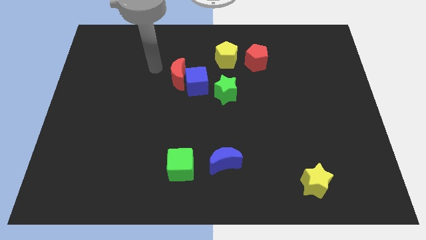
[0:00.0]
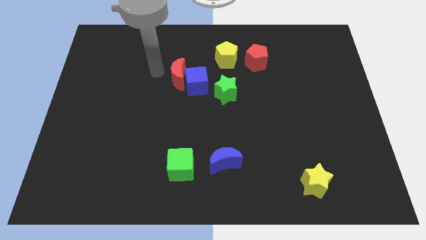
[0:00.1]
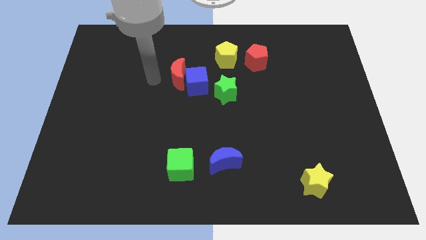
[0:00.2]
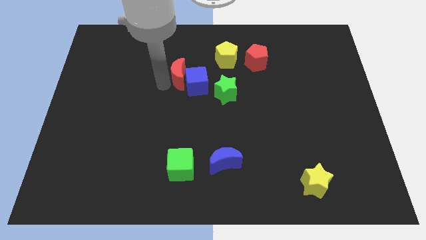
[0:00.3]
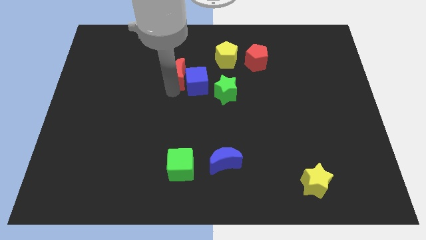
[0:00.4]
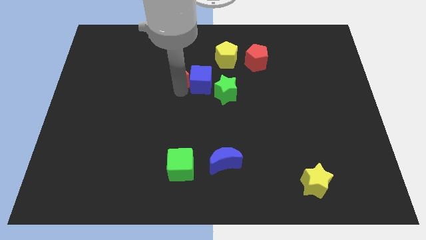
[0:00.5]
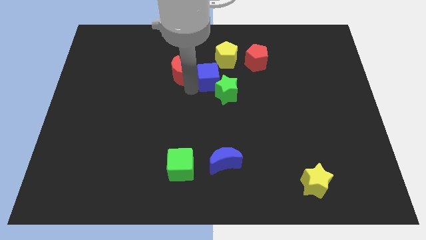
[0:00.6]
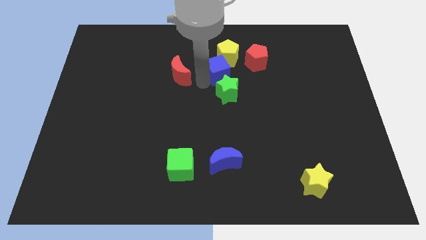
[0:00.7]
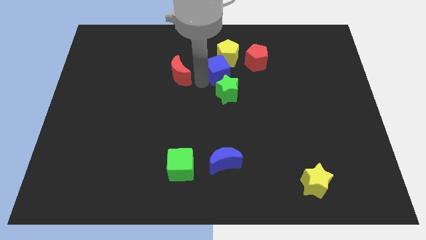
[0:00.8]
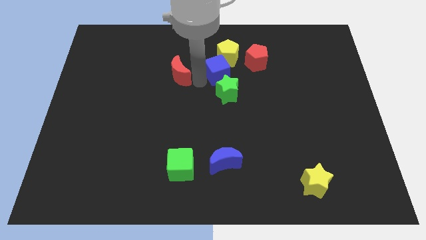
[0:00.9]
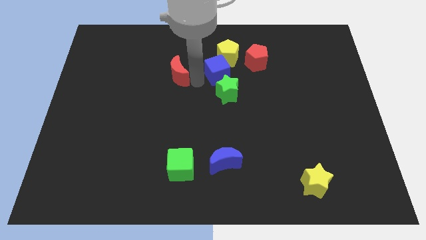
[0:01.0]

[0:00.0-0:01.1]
separate the red moon from the blue cube

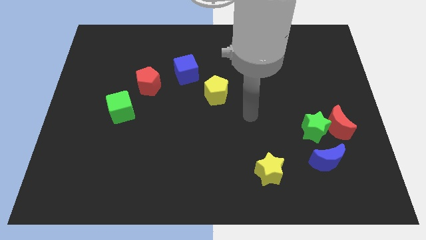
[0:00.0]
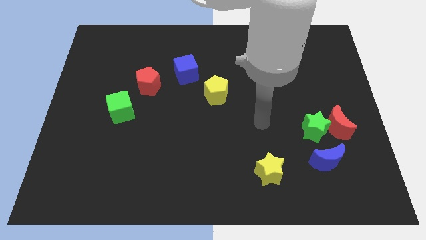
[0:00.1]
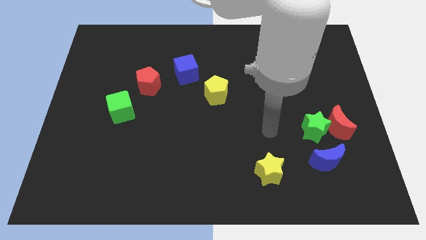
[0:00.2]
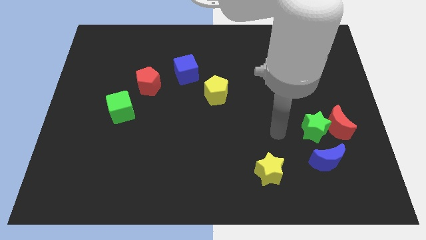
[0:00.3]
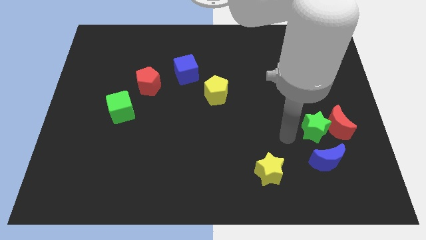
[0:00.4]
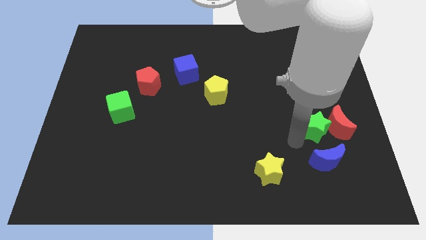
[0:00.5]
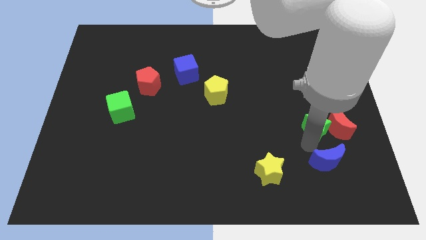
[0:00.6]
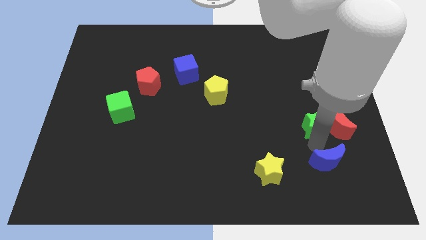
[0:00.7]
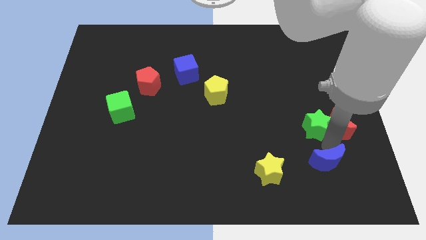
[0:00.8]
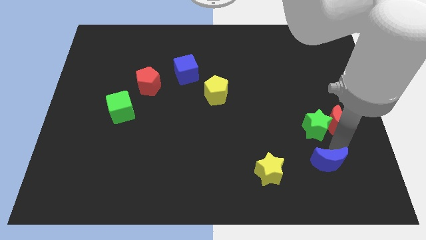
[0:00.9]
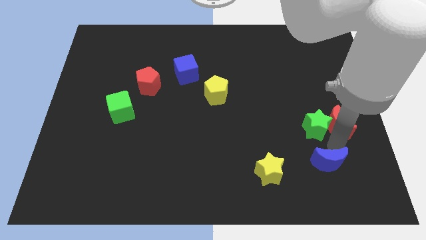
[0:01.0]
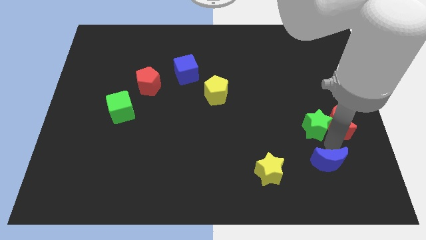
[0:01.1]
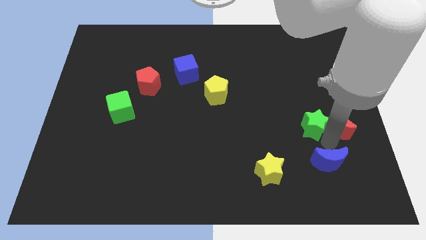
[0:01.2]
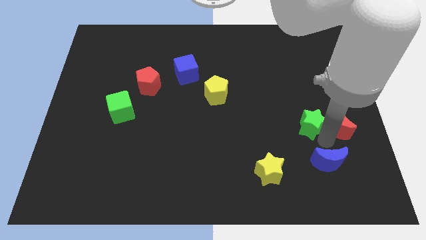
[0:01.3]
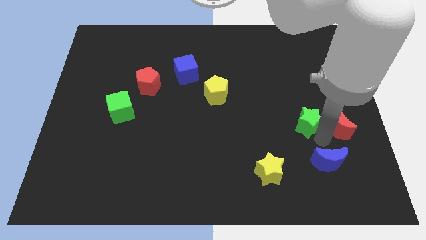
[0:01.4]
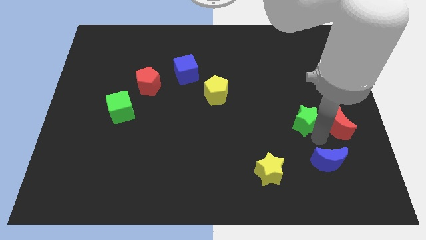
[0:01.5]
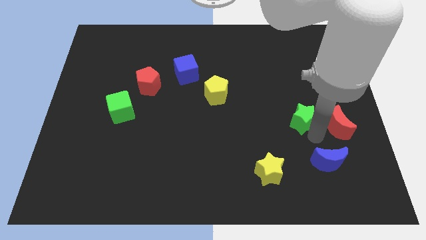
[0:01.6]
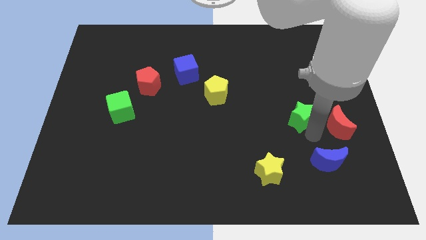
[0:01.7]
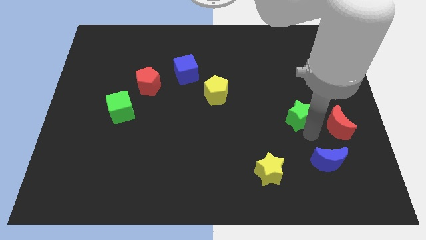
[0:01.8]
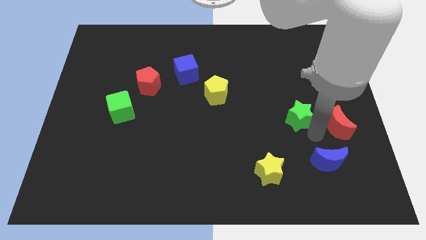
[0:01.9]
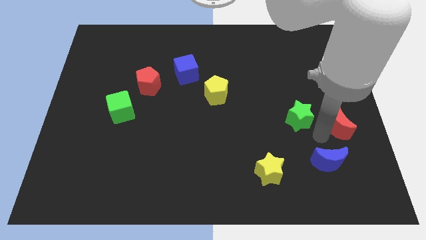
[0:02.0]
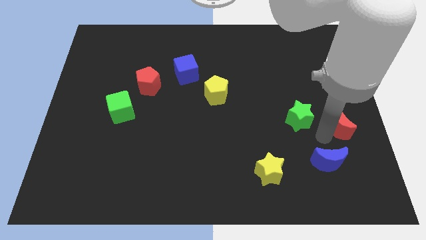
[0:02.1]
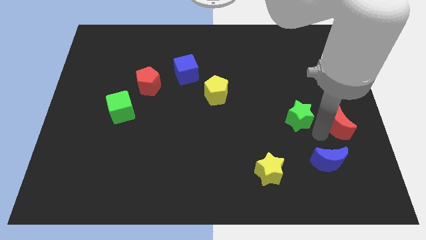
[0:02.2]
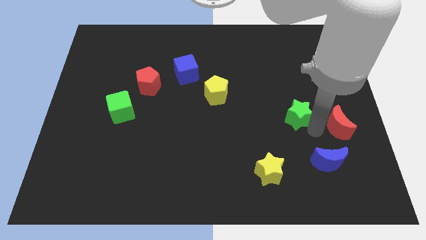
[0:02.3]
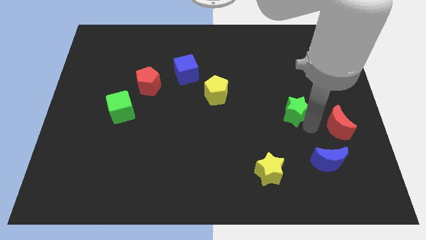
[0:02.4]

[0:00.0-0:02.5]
pull the green star apart from the red moon and blue moon

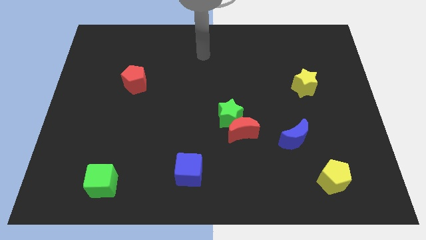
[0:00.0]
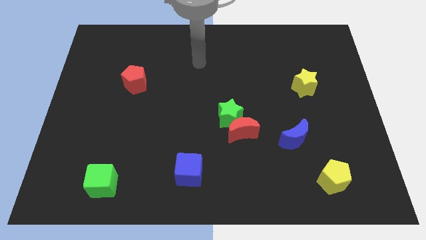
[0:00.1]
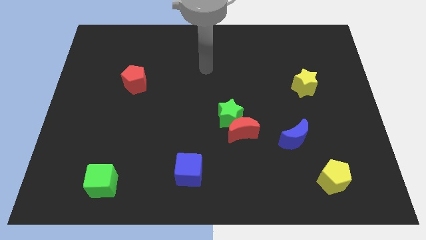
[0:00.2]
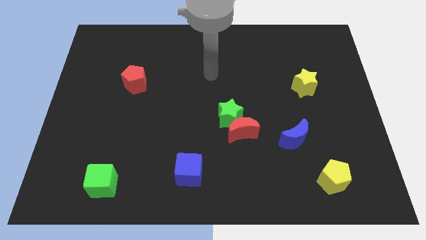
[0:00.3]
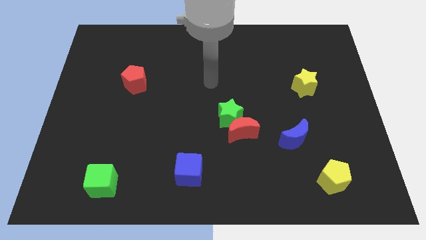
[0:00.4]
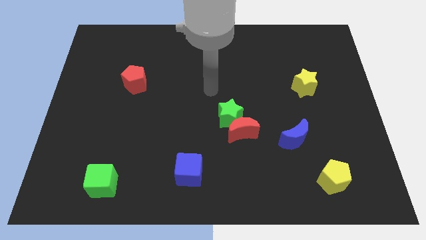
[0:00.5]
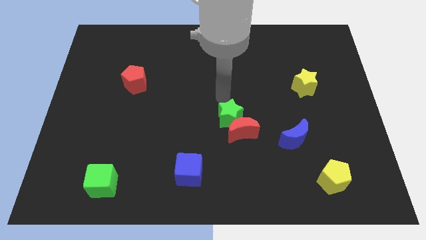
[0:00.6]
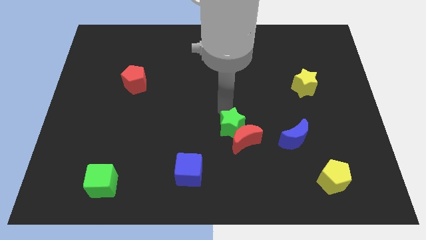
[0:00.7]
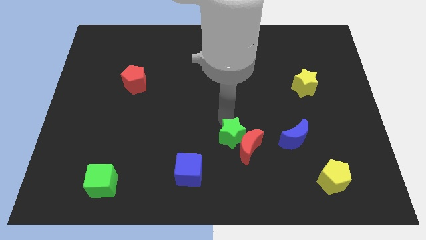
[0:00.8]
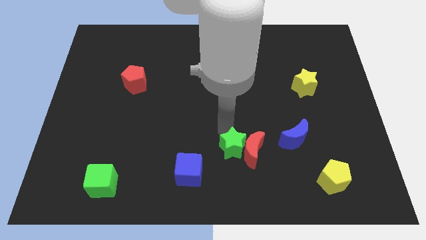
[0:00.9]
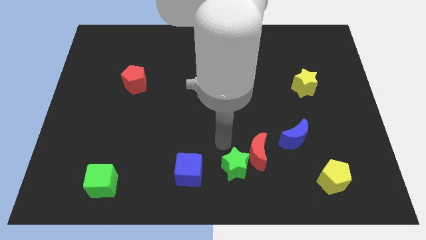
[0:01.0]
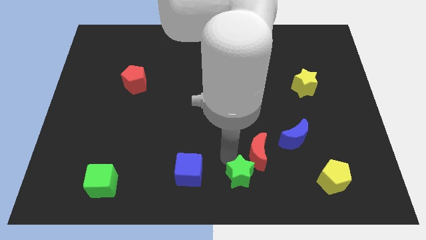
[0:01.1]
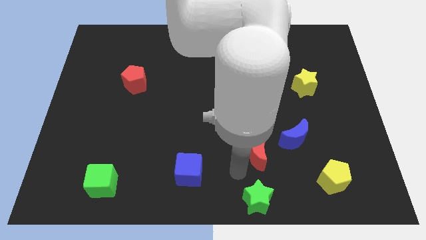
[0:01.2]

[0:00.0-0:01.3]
move the red moon away from the green star

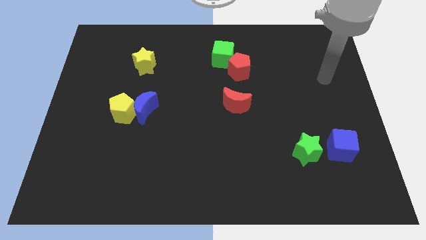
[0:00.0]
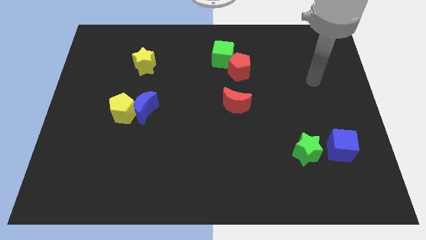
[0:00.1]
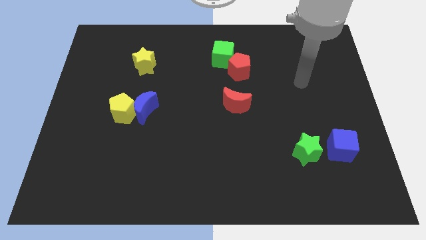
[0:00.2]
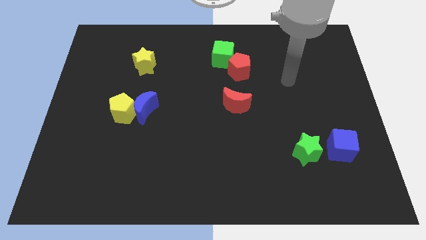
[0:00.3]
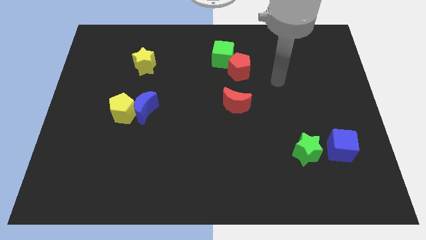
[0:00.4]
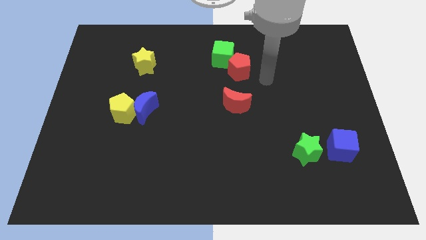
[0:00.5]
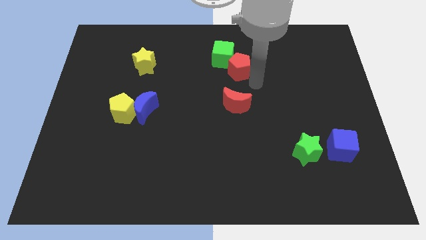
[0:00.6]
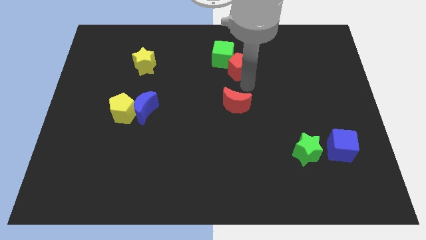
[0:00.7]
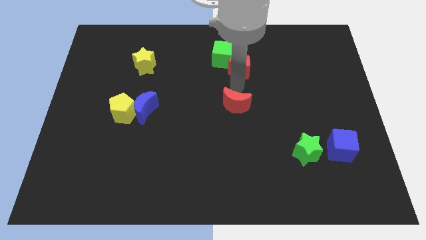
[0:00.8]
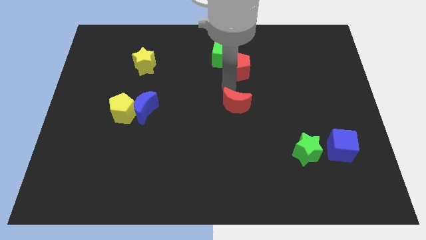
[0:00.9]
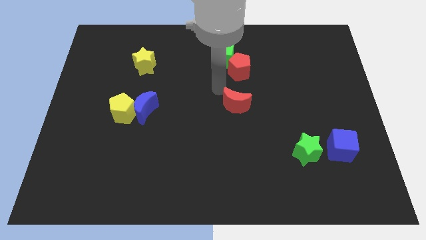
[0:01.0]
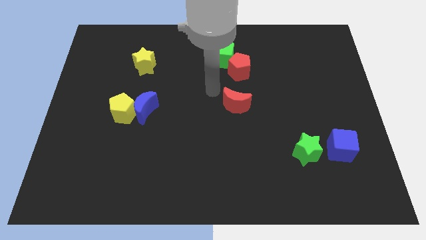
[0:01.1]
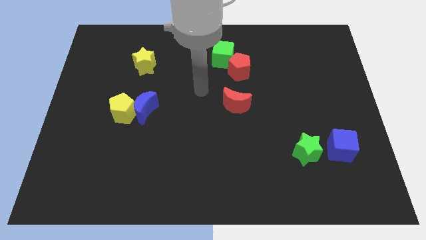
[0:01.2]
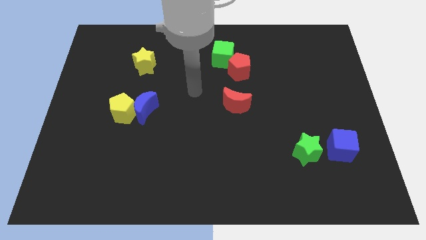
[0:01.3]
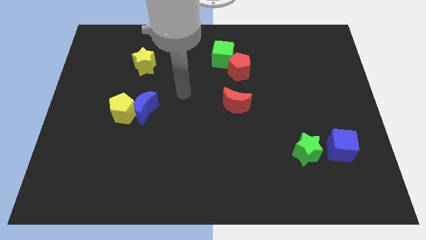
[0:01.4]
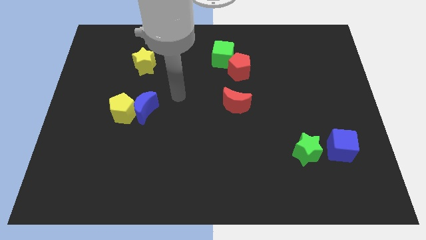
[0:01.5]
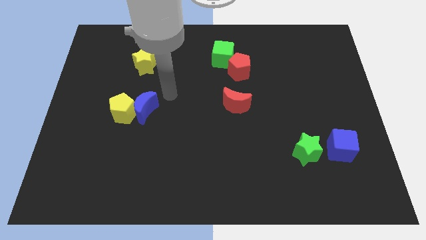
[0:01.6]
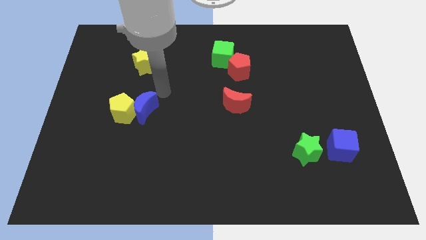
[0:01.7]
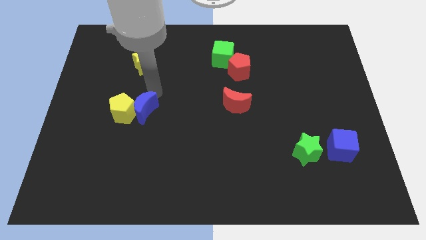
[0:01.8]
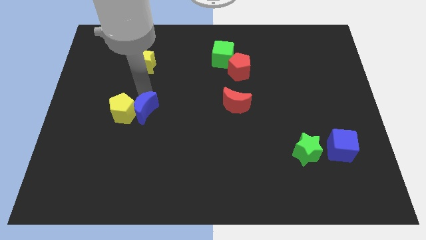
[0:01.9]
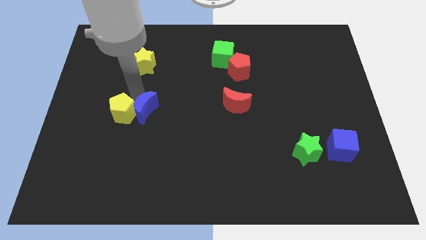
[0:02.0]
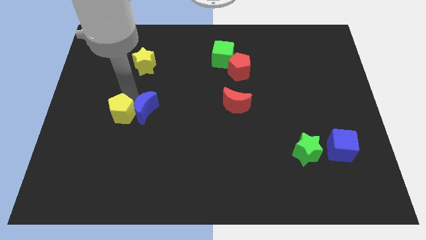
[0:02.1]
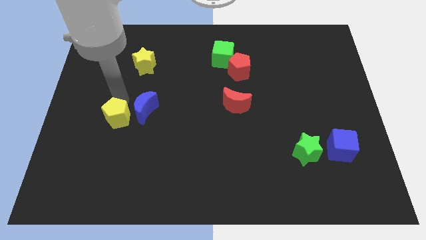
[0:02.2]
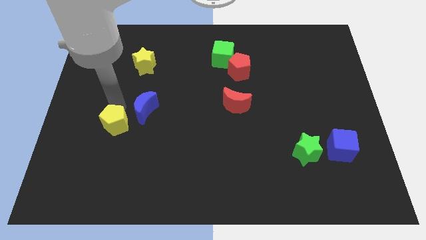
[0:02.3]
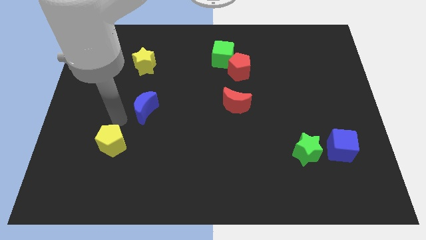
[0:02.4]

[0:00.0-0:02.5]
pull the blue moon apart from the yellow pentagon

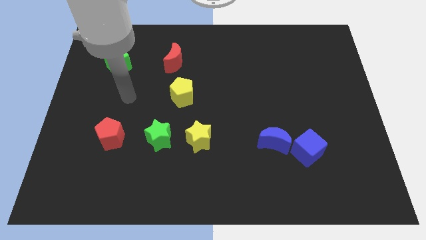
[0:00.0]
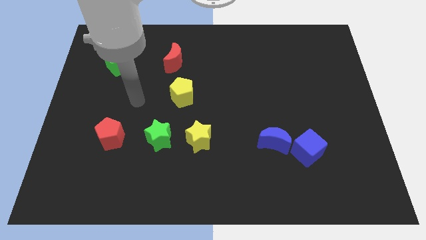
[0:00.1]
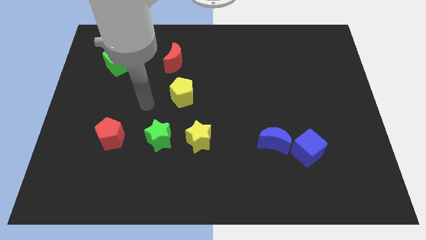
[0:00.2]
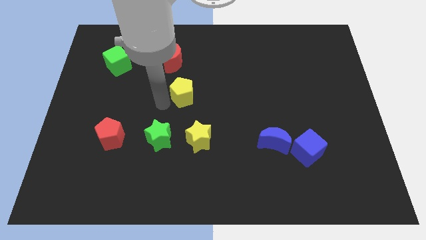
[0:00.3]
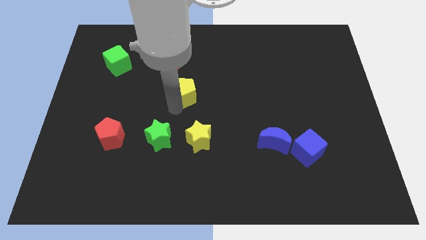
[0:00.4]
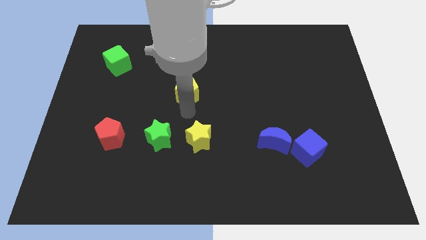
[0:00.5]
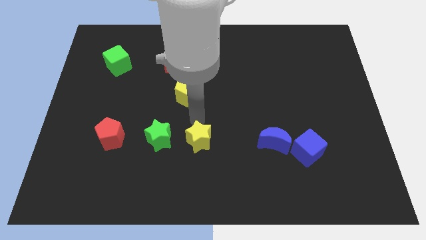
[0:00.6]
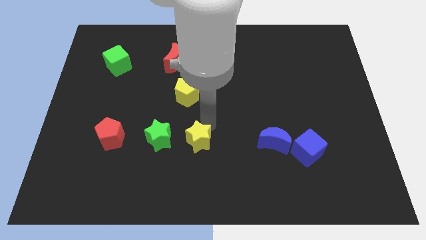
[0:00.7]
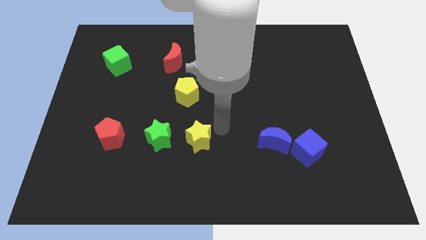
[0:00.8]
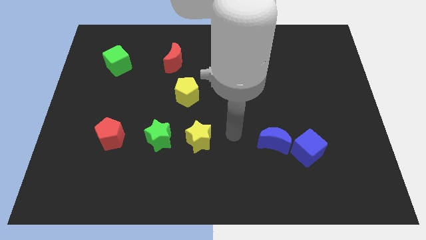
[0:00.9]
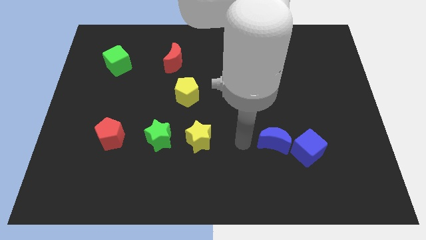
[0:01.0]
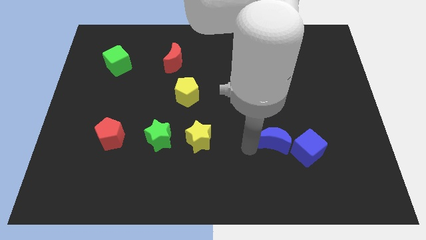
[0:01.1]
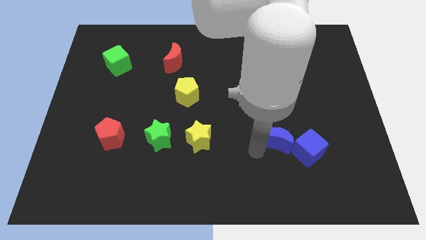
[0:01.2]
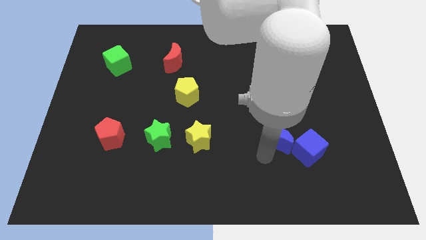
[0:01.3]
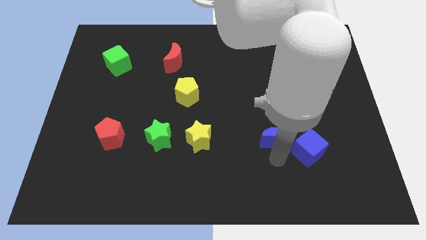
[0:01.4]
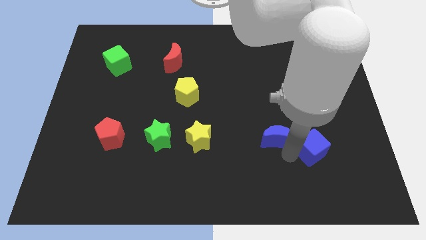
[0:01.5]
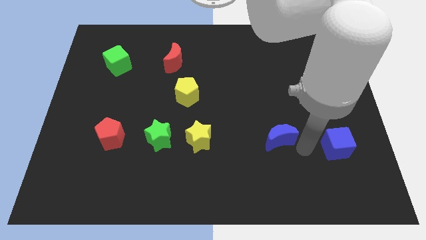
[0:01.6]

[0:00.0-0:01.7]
separate the blue moon from the blue cube
